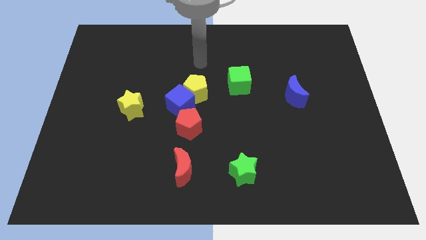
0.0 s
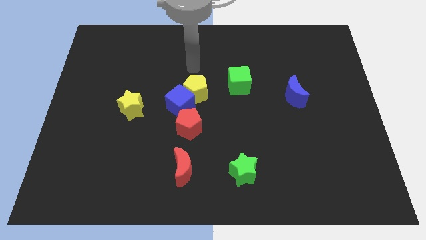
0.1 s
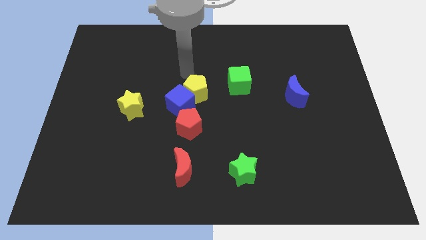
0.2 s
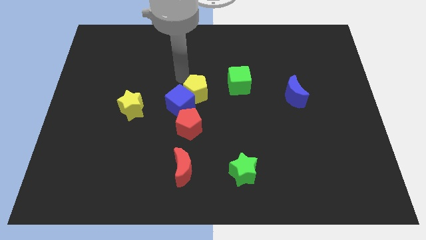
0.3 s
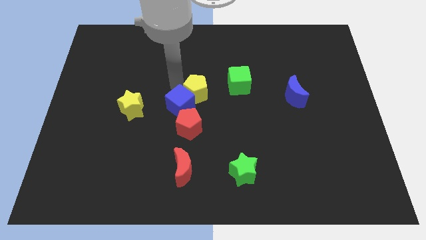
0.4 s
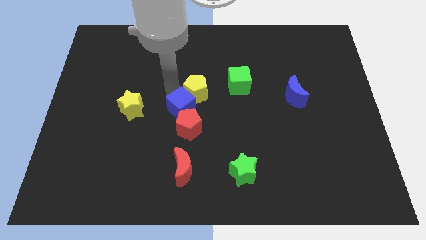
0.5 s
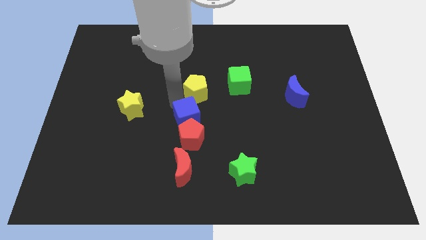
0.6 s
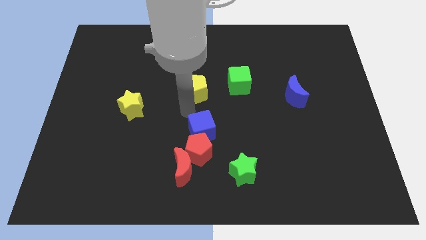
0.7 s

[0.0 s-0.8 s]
pull the yellow pentagon apart from the blue cube

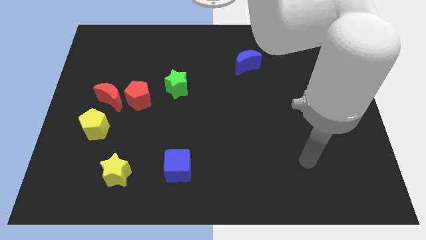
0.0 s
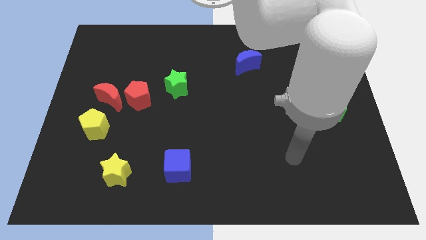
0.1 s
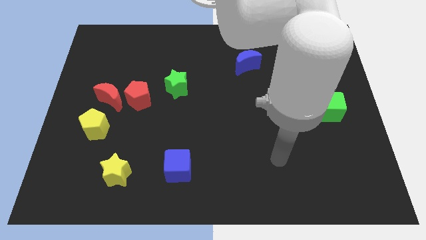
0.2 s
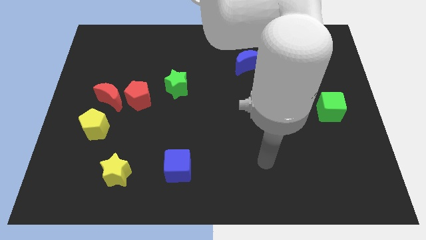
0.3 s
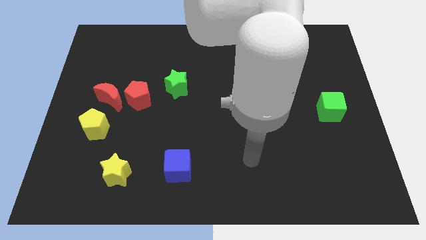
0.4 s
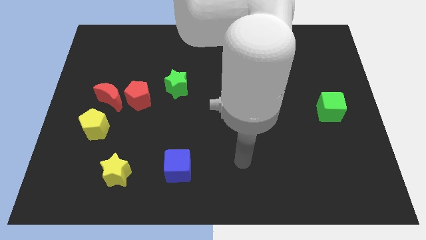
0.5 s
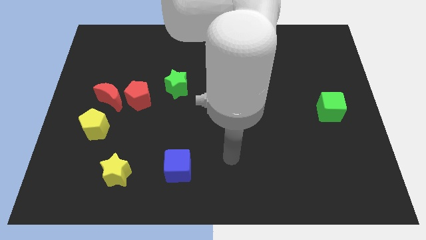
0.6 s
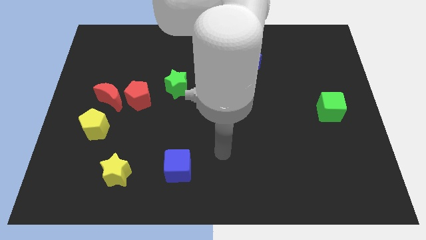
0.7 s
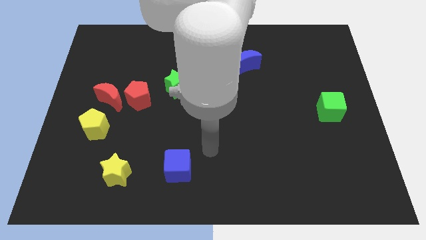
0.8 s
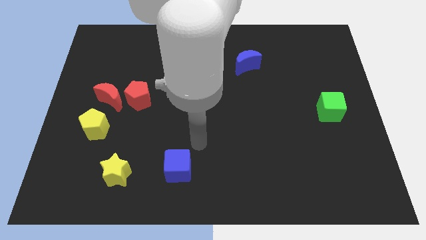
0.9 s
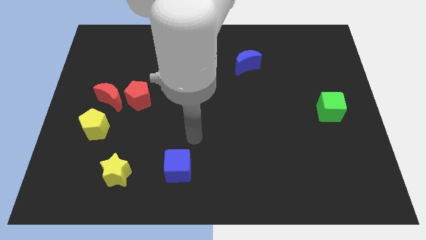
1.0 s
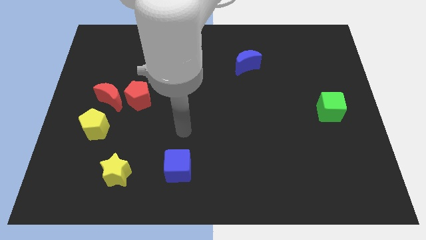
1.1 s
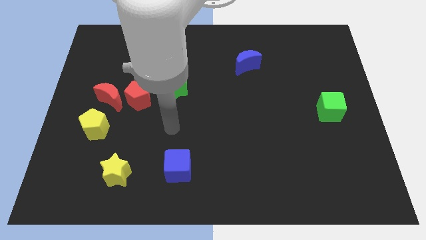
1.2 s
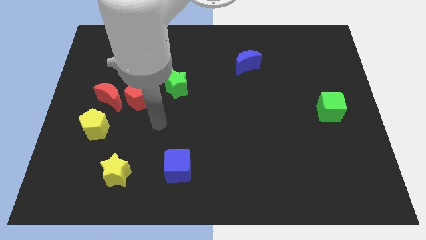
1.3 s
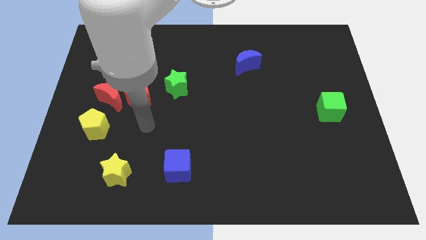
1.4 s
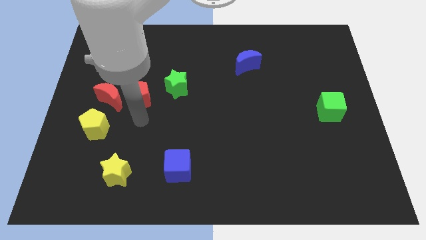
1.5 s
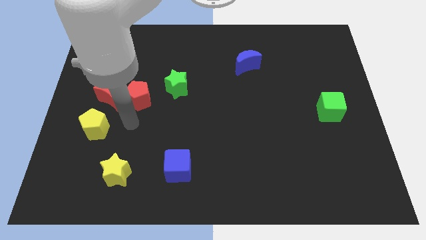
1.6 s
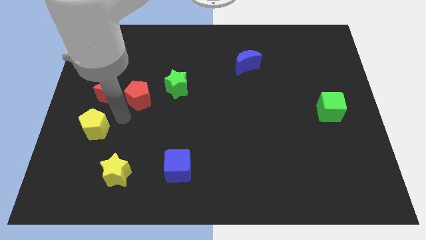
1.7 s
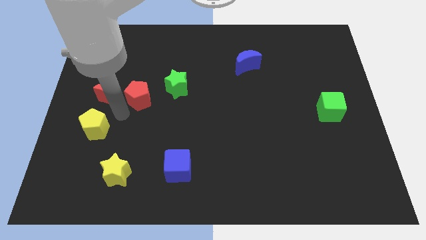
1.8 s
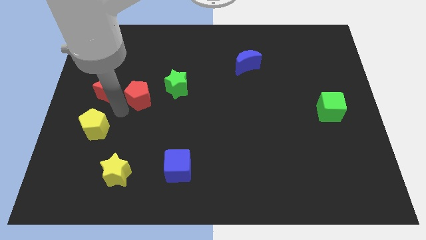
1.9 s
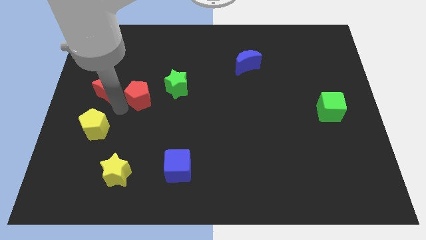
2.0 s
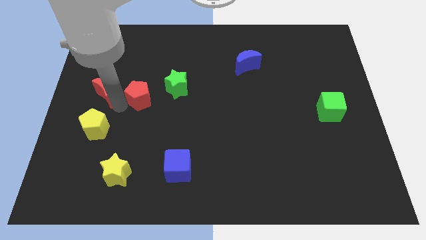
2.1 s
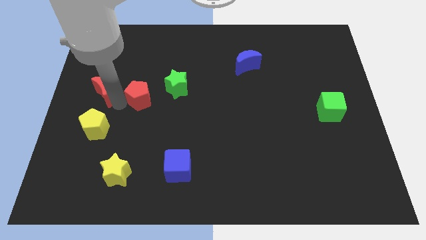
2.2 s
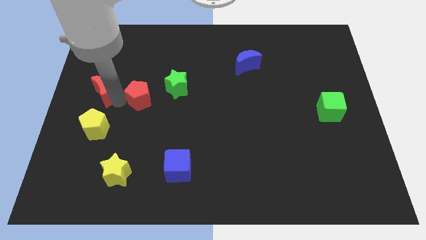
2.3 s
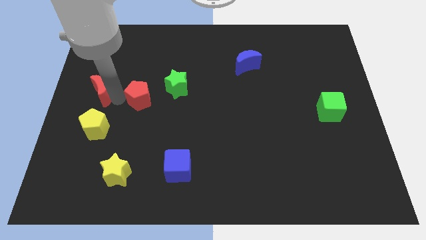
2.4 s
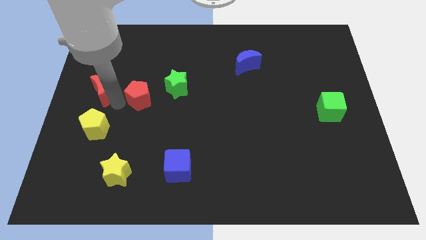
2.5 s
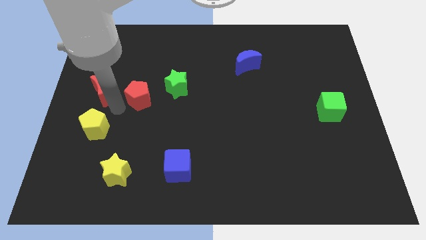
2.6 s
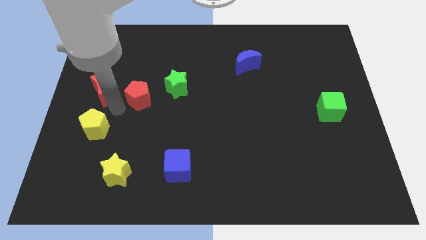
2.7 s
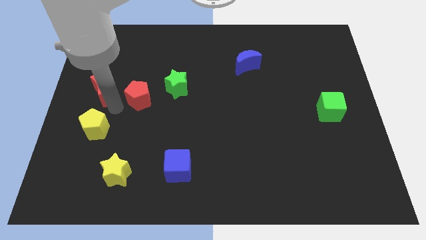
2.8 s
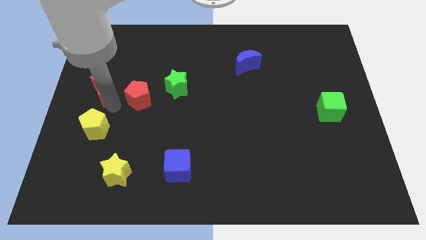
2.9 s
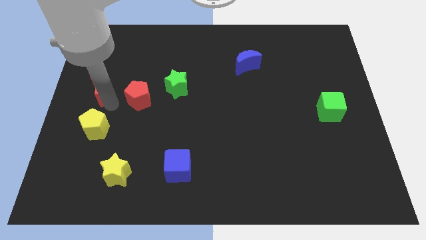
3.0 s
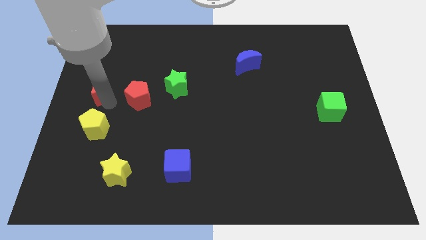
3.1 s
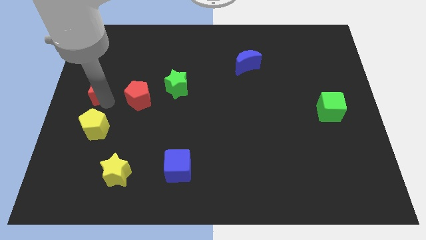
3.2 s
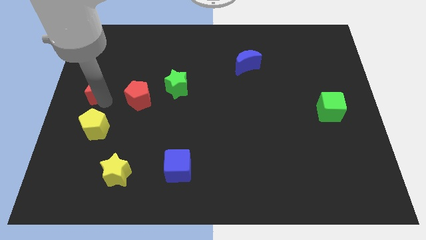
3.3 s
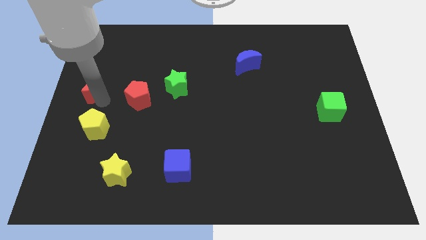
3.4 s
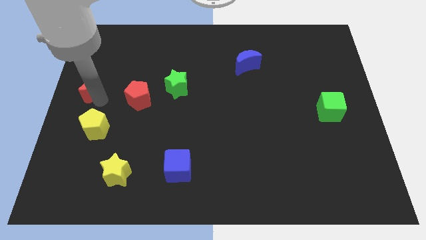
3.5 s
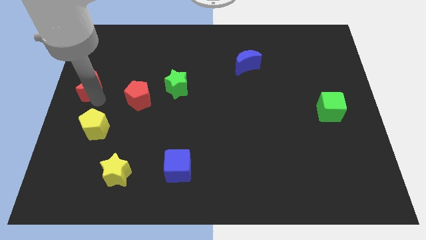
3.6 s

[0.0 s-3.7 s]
separate the red moon from the red pentagon and yellow pentagon

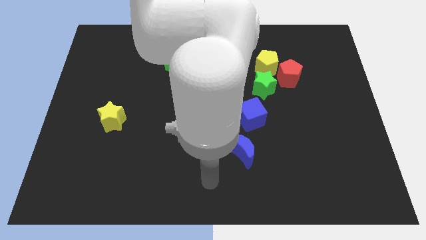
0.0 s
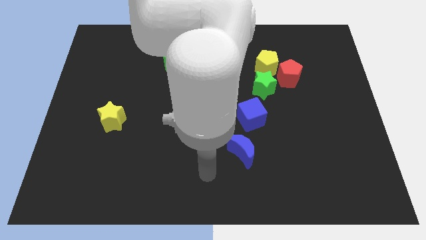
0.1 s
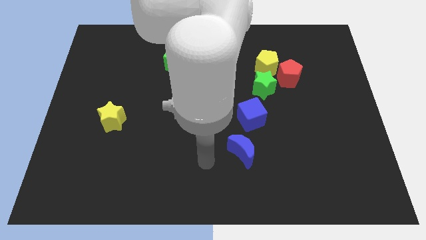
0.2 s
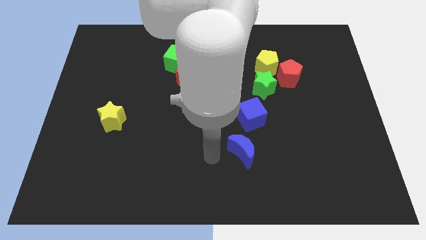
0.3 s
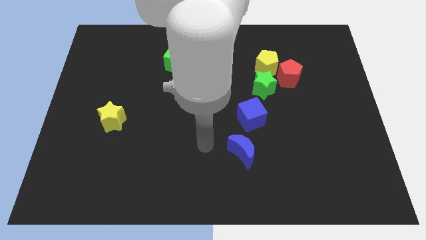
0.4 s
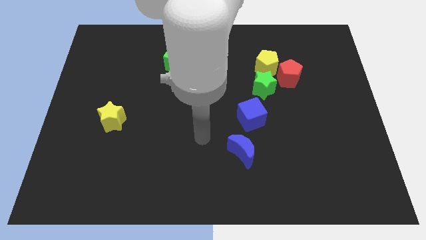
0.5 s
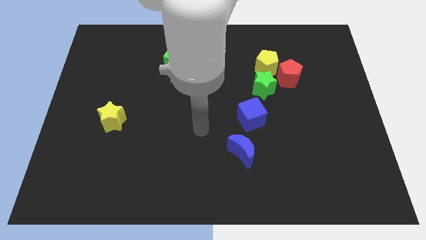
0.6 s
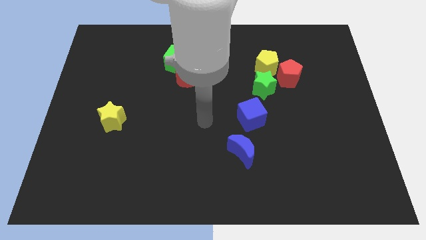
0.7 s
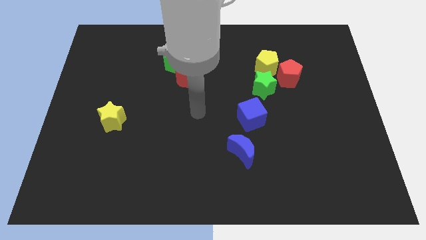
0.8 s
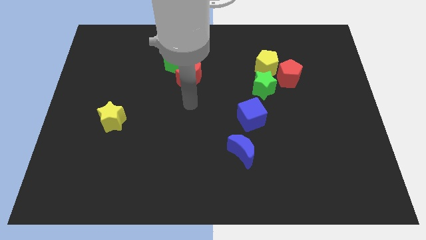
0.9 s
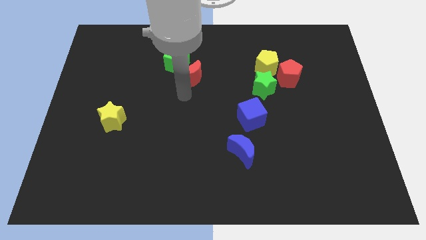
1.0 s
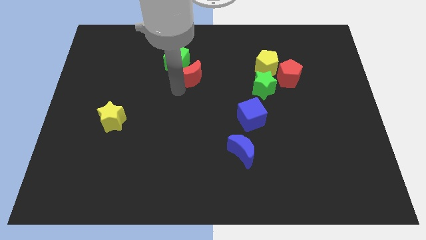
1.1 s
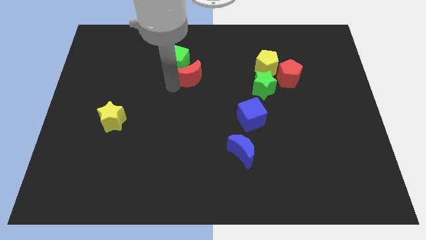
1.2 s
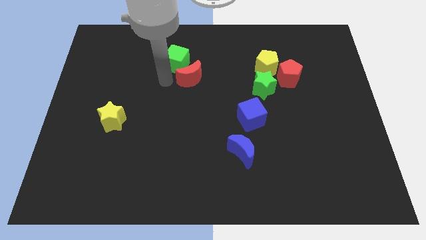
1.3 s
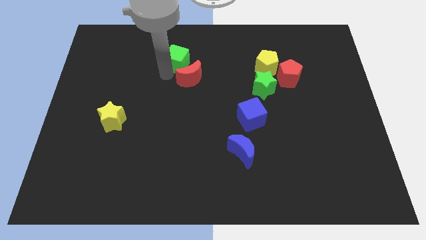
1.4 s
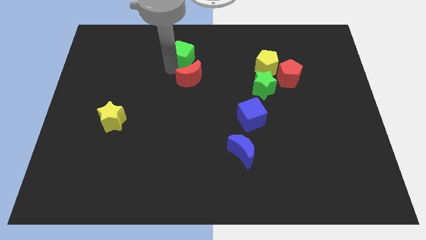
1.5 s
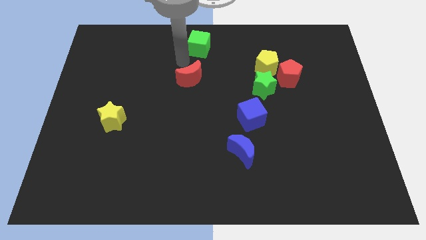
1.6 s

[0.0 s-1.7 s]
move the red moon away from the green cube

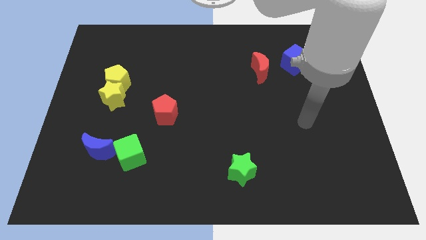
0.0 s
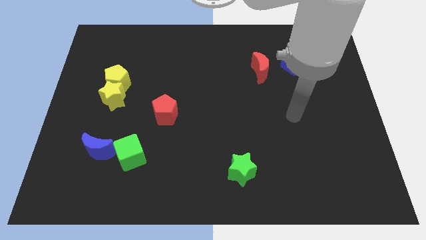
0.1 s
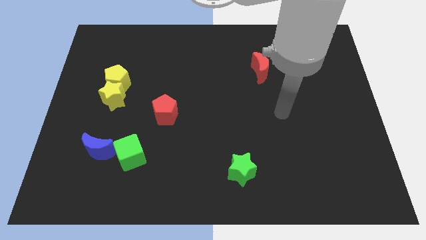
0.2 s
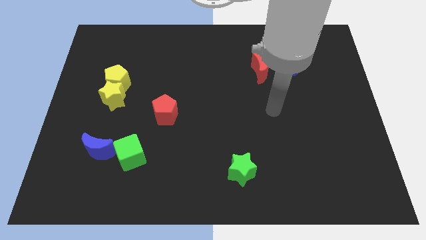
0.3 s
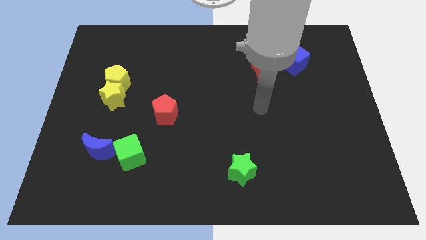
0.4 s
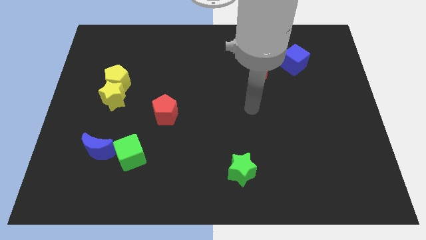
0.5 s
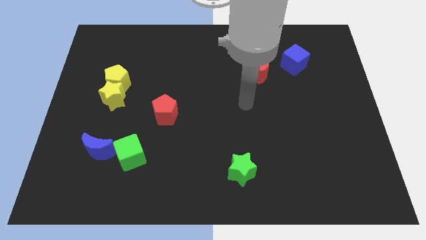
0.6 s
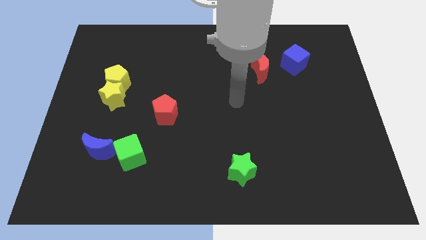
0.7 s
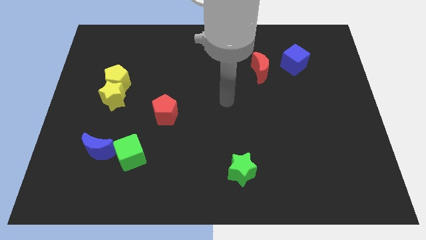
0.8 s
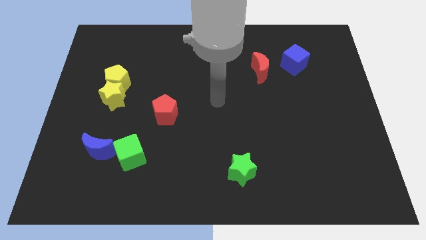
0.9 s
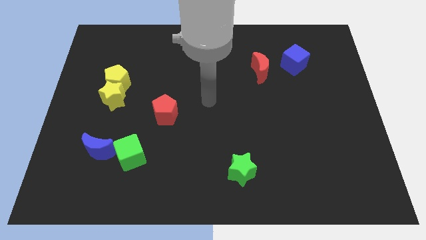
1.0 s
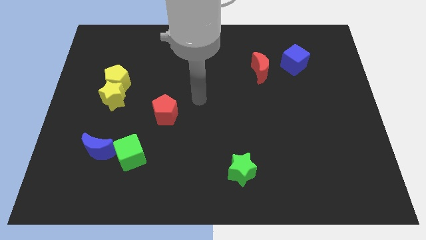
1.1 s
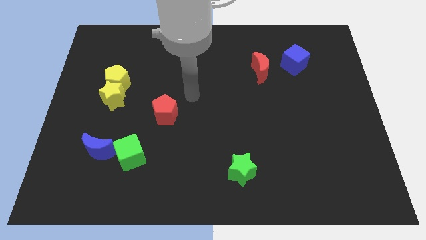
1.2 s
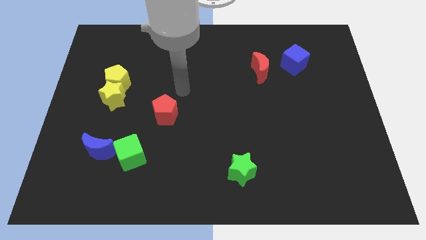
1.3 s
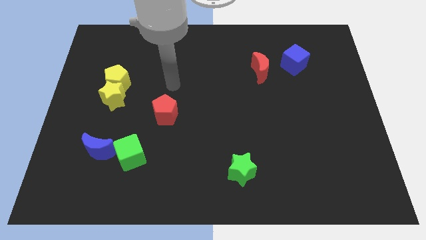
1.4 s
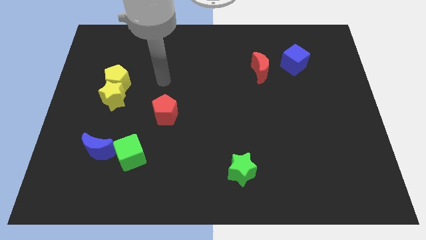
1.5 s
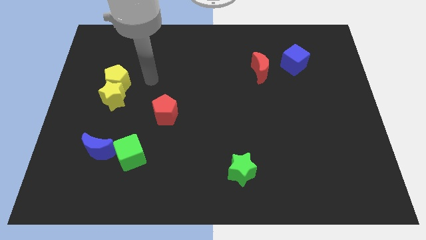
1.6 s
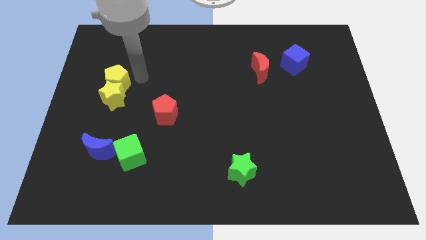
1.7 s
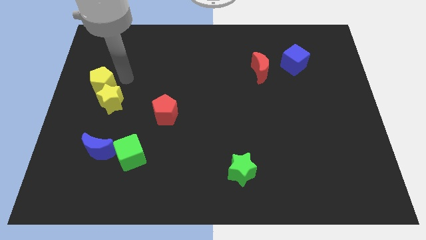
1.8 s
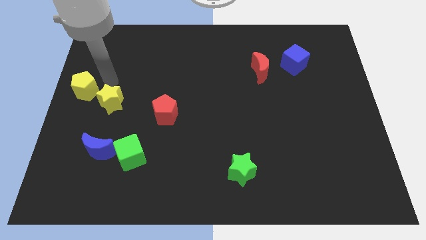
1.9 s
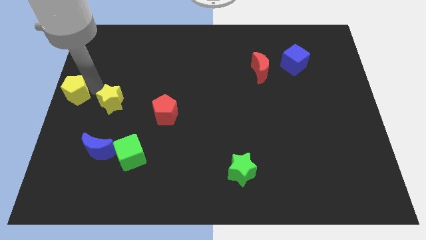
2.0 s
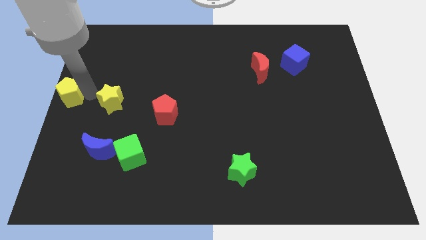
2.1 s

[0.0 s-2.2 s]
pull the yellow star apart from the yellow pentagon

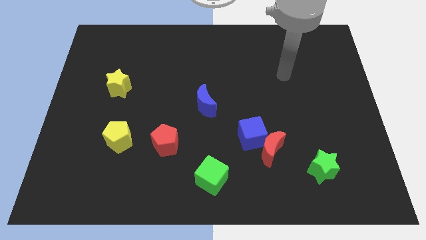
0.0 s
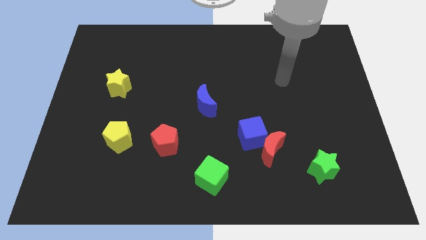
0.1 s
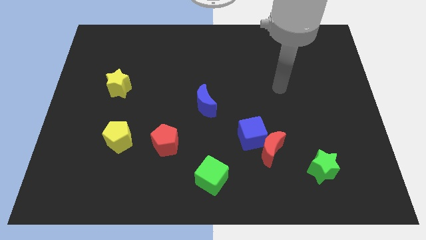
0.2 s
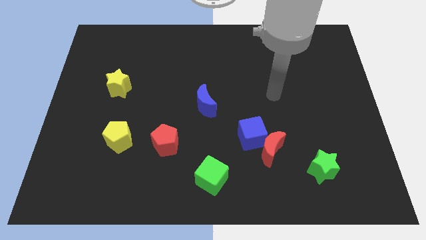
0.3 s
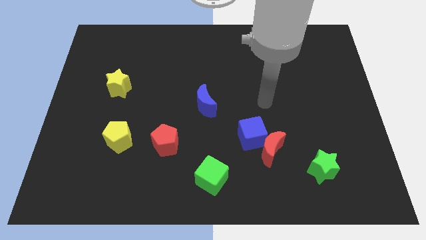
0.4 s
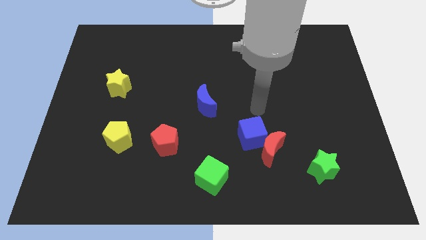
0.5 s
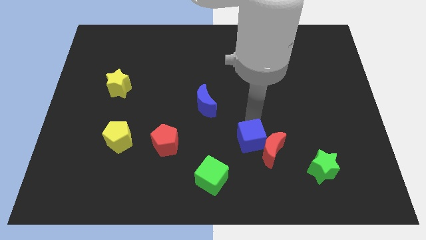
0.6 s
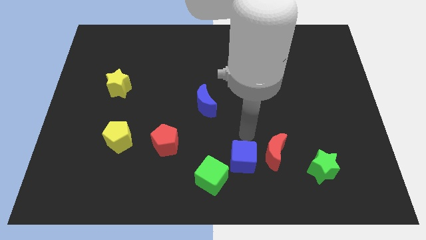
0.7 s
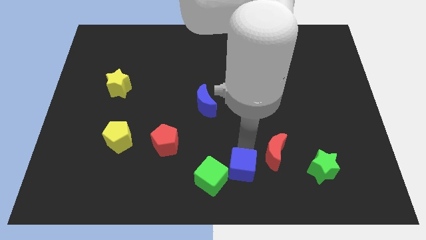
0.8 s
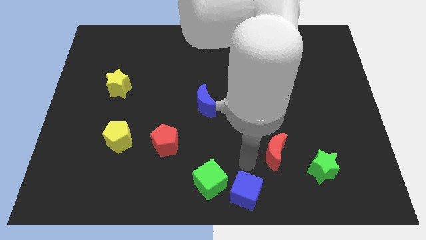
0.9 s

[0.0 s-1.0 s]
separate the red moon from the blue cube
